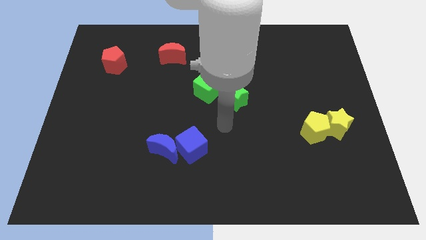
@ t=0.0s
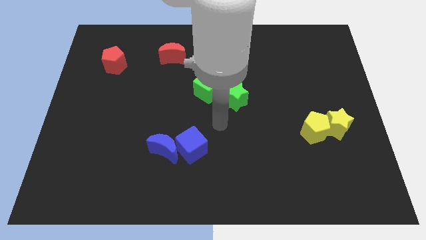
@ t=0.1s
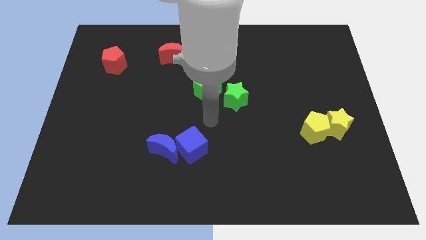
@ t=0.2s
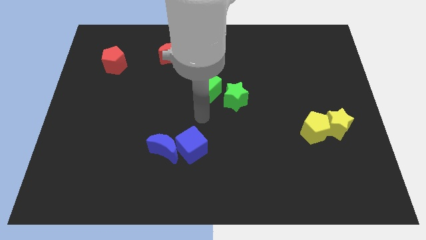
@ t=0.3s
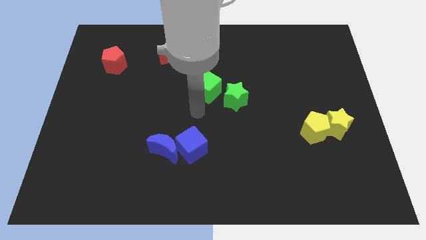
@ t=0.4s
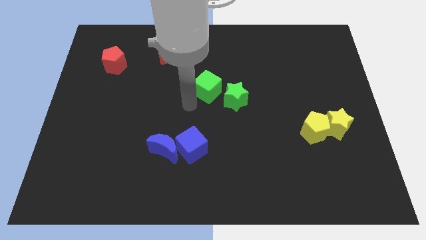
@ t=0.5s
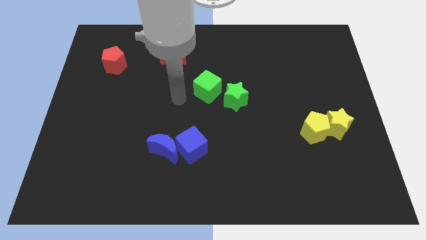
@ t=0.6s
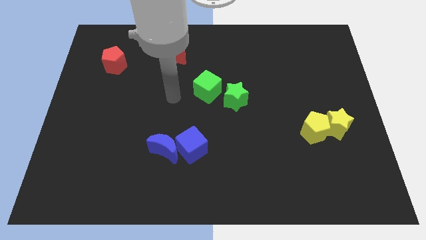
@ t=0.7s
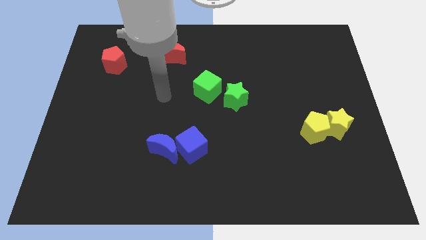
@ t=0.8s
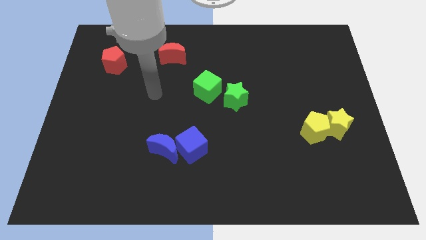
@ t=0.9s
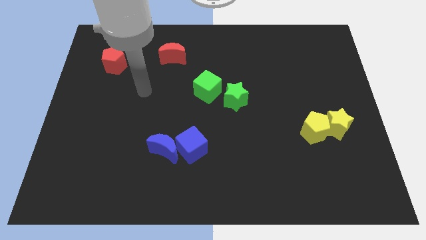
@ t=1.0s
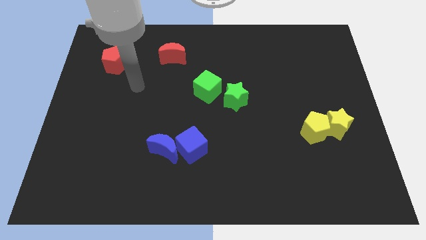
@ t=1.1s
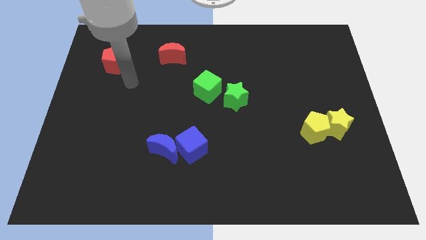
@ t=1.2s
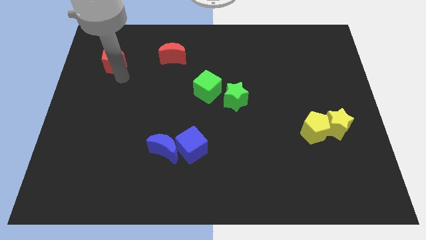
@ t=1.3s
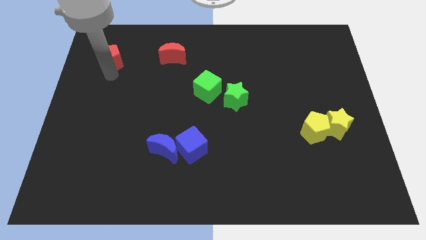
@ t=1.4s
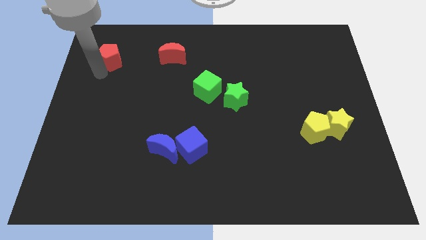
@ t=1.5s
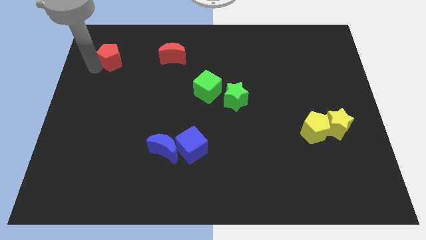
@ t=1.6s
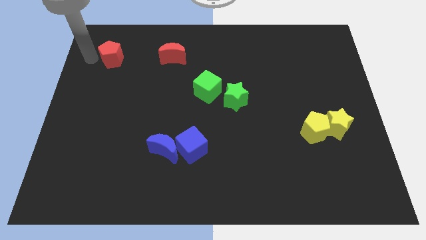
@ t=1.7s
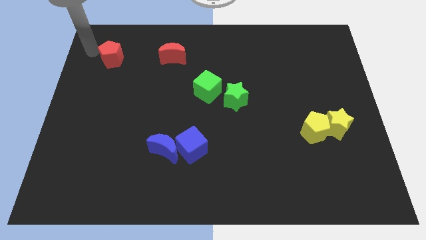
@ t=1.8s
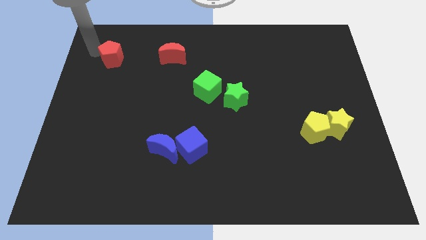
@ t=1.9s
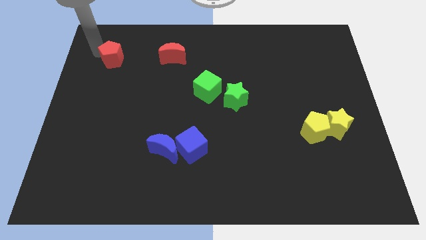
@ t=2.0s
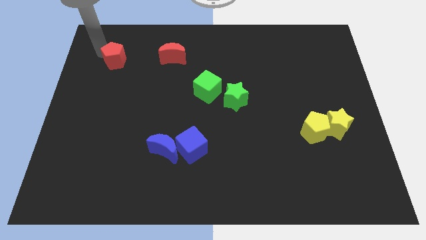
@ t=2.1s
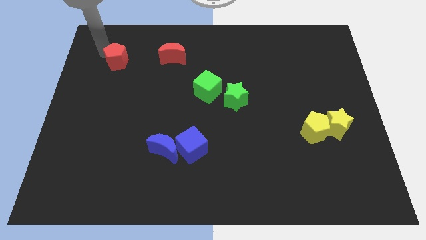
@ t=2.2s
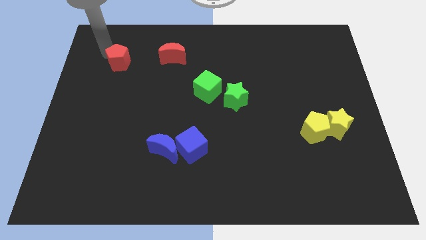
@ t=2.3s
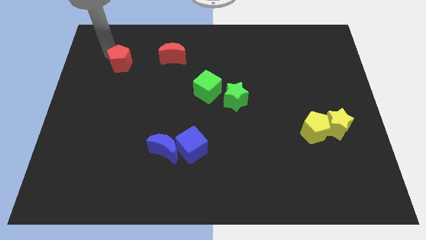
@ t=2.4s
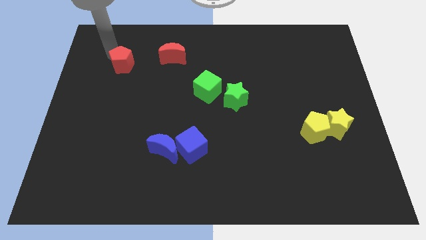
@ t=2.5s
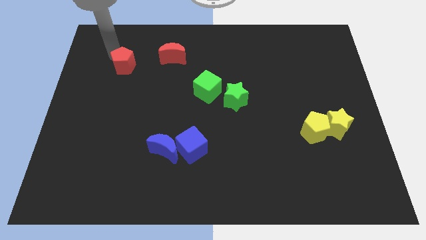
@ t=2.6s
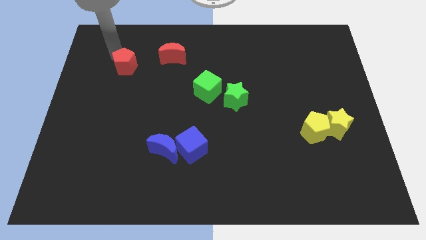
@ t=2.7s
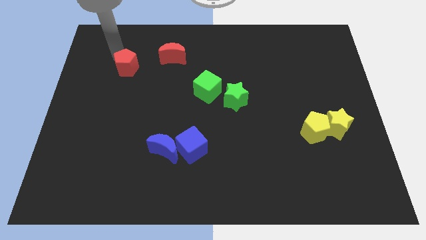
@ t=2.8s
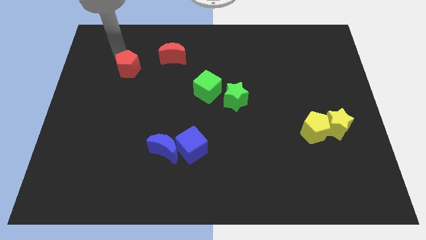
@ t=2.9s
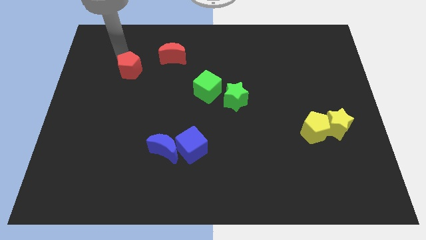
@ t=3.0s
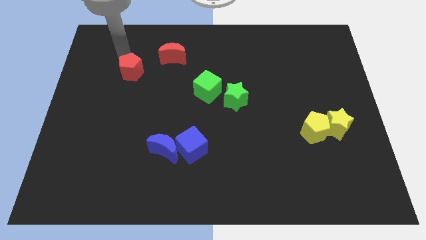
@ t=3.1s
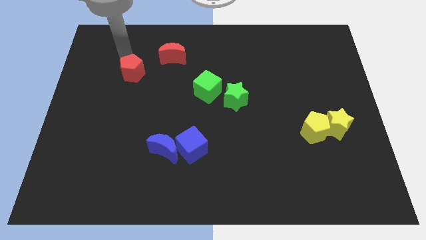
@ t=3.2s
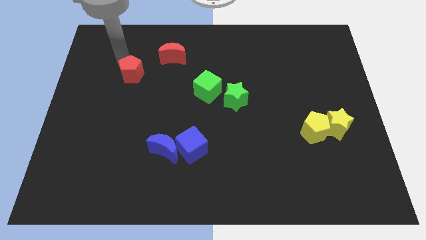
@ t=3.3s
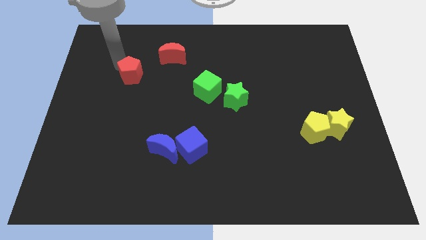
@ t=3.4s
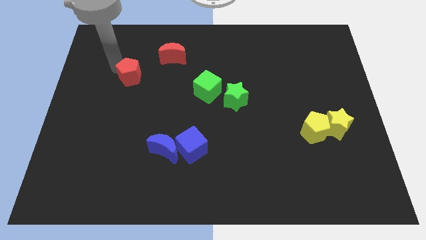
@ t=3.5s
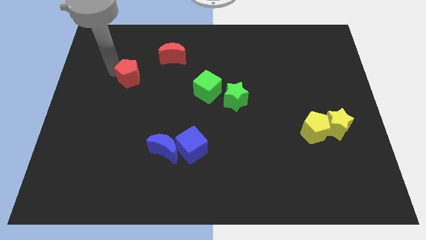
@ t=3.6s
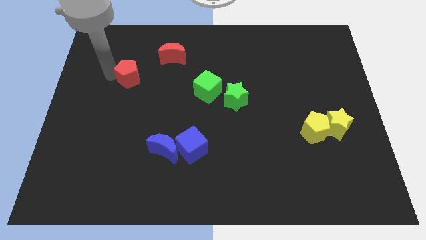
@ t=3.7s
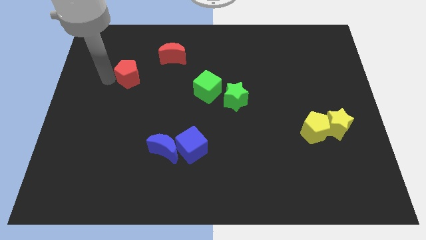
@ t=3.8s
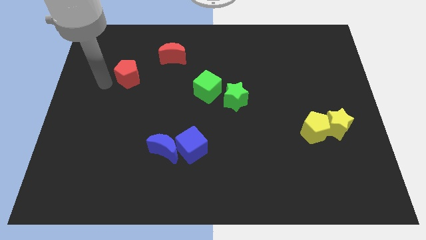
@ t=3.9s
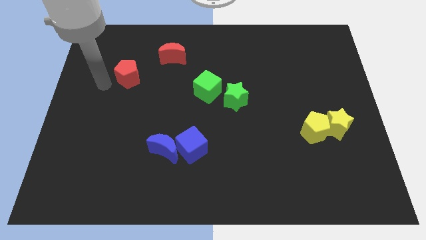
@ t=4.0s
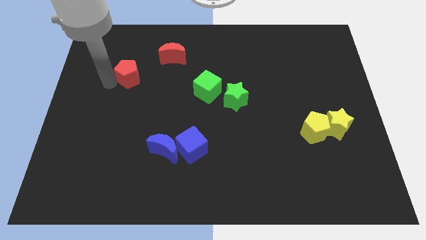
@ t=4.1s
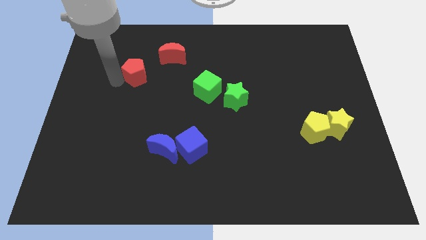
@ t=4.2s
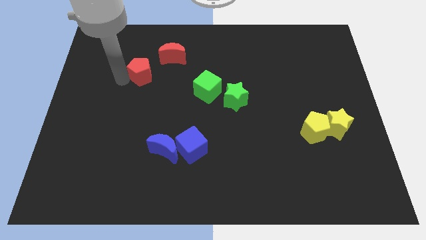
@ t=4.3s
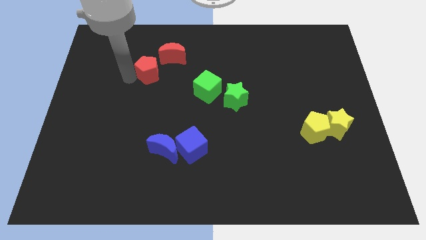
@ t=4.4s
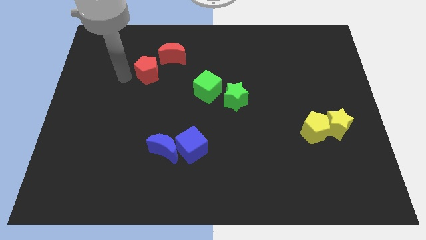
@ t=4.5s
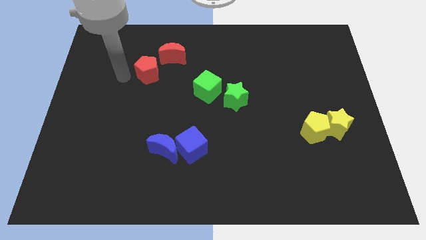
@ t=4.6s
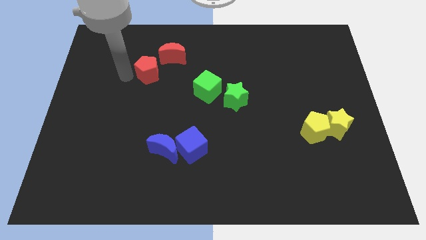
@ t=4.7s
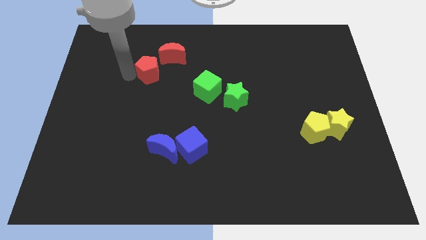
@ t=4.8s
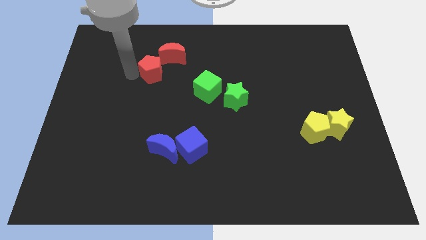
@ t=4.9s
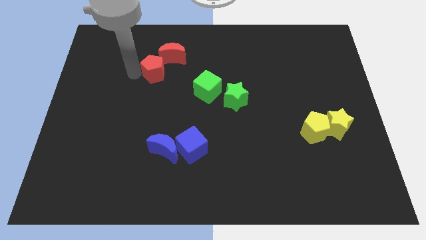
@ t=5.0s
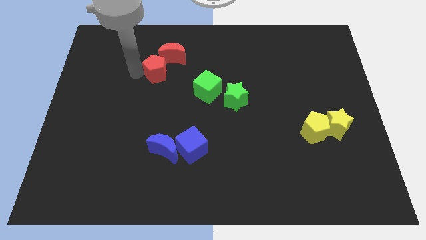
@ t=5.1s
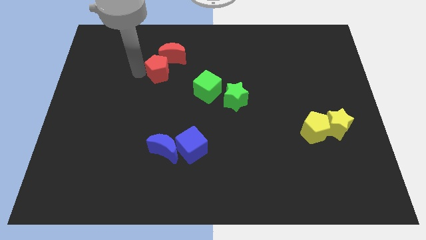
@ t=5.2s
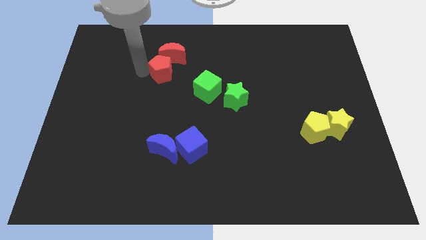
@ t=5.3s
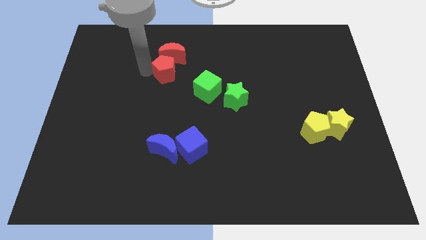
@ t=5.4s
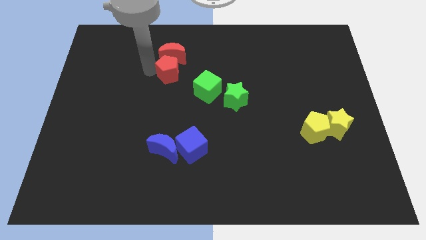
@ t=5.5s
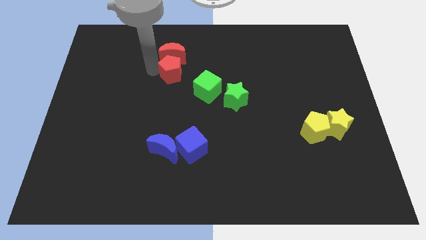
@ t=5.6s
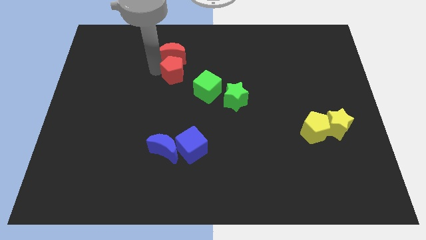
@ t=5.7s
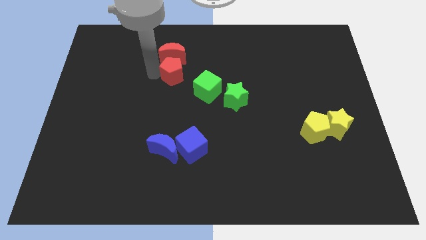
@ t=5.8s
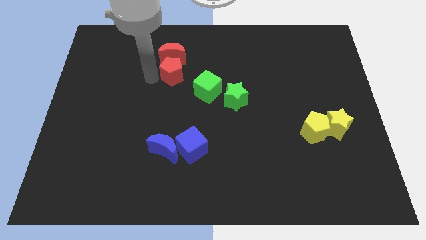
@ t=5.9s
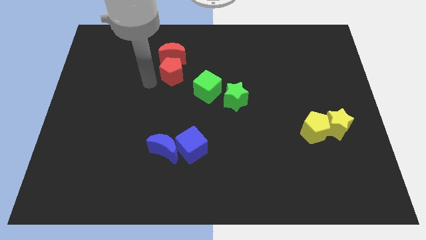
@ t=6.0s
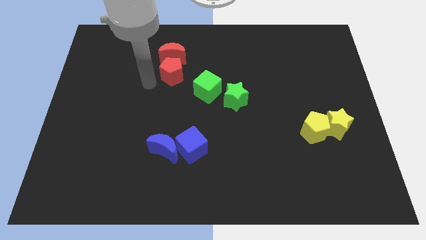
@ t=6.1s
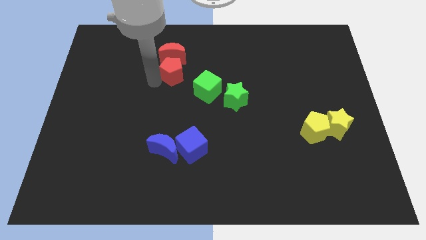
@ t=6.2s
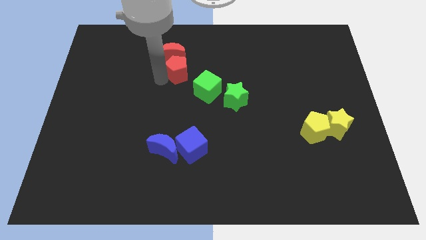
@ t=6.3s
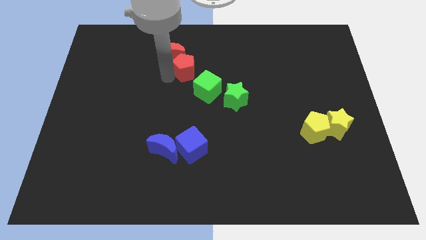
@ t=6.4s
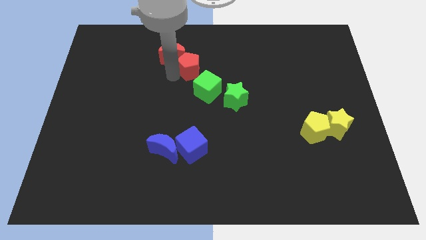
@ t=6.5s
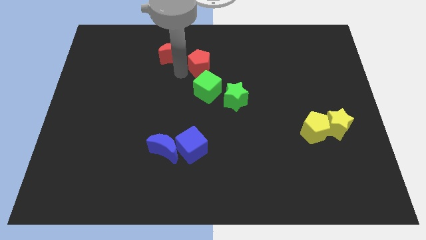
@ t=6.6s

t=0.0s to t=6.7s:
move the red pentagon right

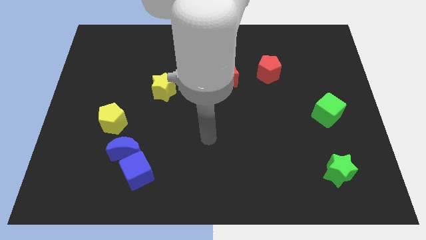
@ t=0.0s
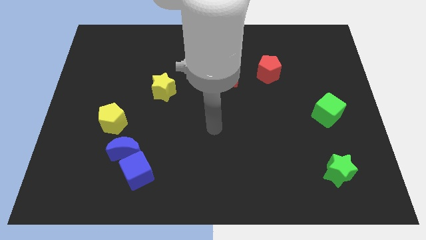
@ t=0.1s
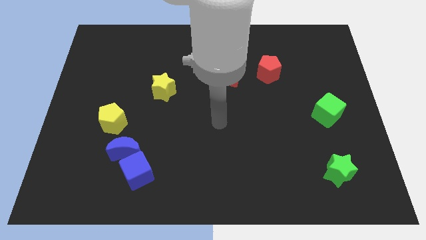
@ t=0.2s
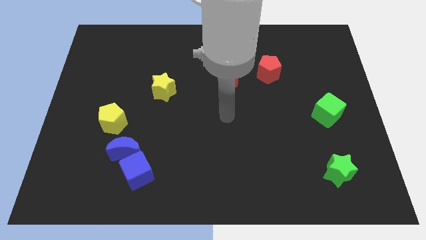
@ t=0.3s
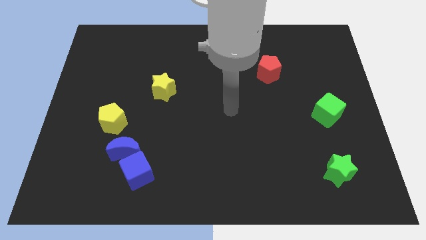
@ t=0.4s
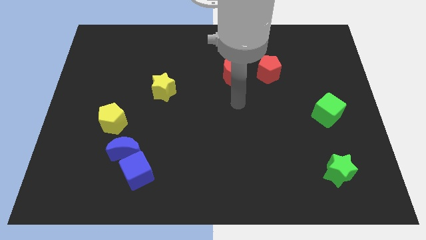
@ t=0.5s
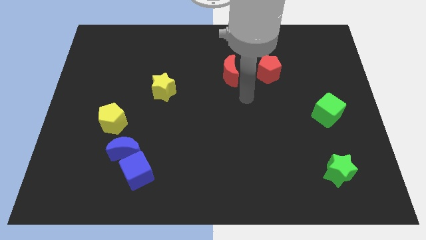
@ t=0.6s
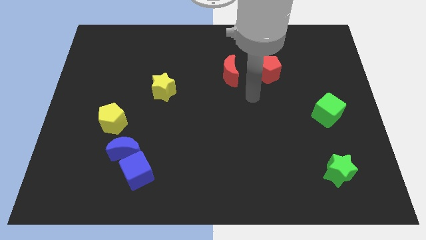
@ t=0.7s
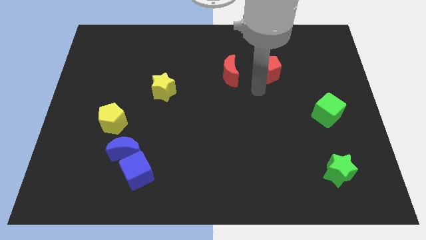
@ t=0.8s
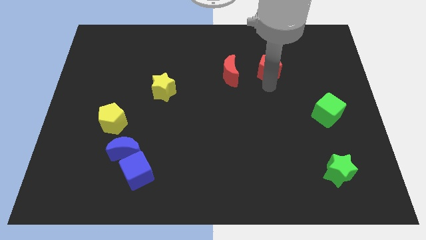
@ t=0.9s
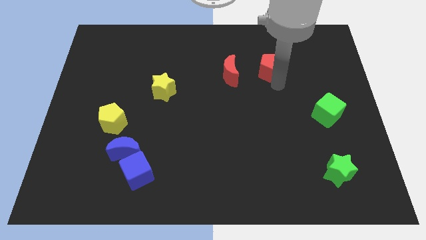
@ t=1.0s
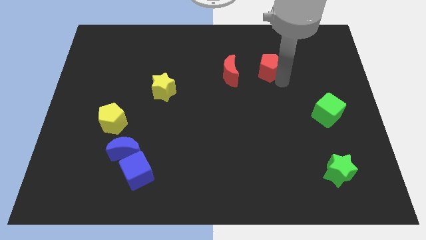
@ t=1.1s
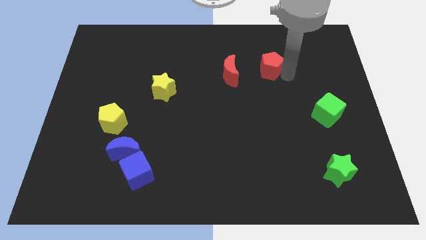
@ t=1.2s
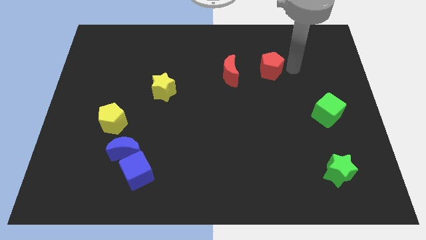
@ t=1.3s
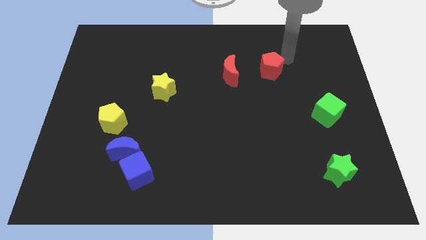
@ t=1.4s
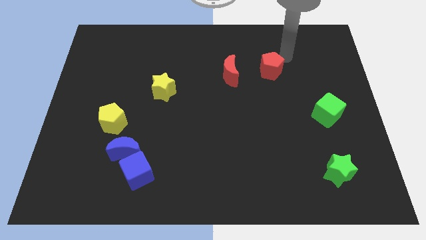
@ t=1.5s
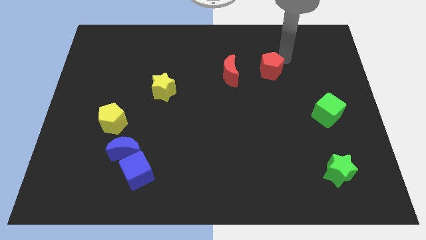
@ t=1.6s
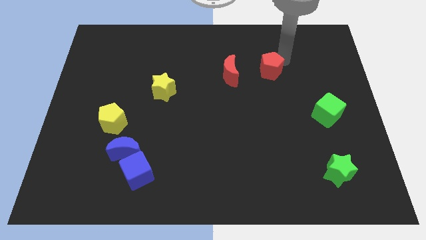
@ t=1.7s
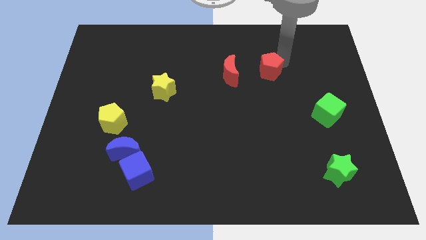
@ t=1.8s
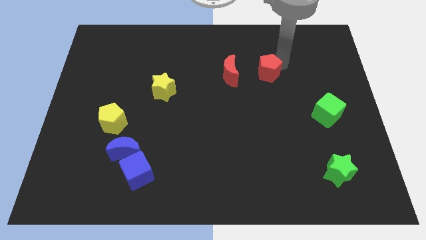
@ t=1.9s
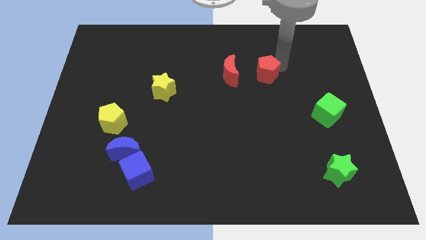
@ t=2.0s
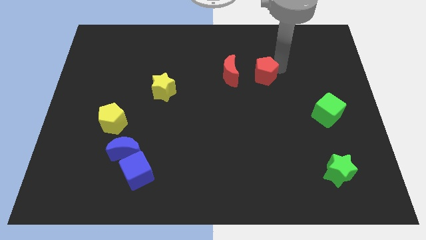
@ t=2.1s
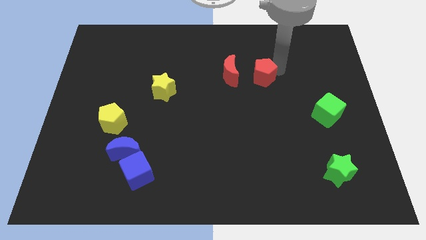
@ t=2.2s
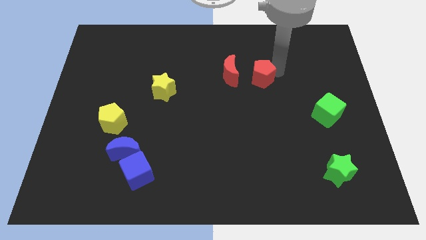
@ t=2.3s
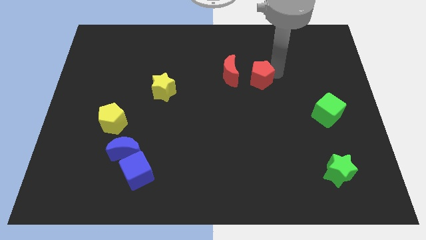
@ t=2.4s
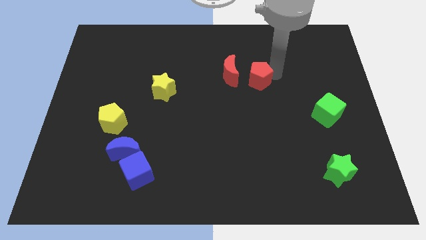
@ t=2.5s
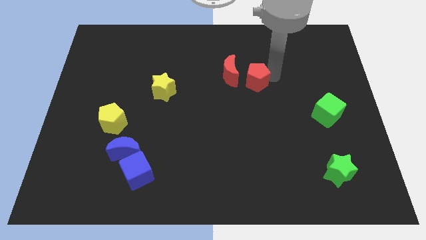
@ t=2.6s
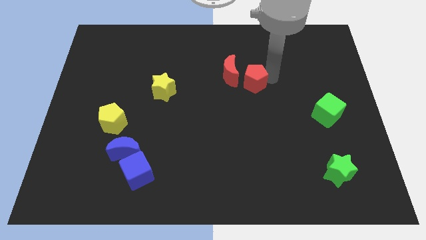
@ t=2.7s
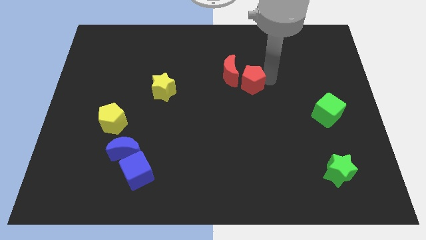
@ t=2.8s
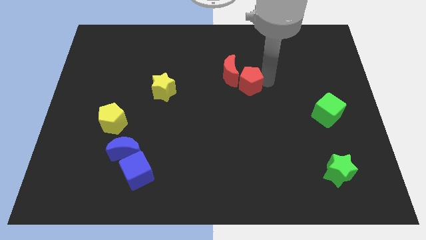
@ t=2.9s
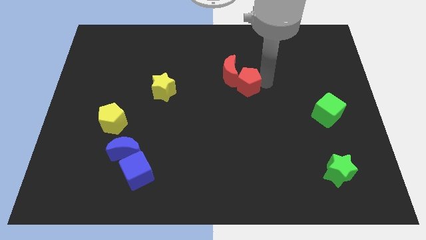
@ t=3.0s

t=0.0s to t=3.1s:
slide the red pentagon a little bit downwards and then to the left
